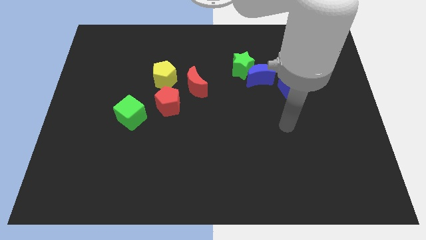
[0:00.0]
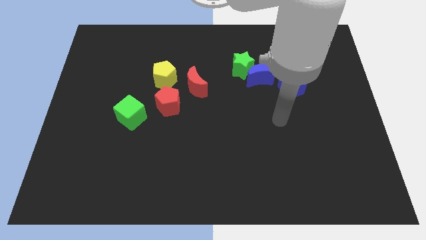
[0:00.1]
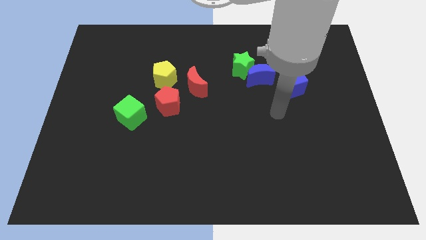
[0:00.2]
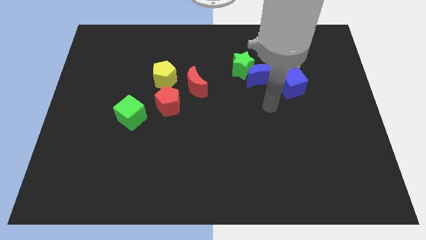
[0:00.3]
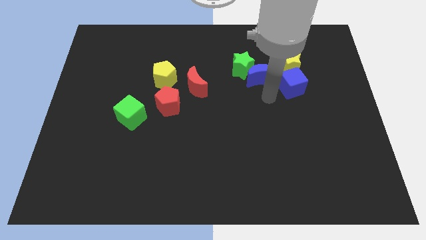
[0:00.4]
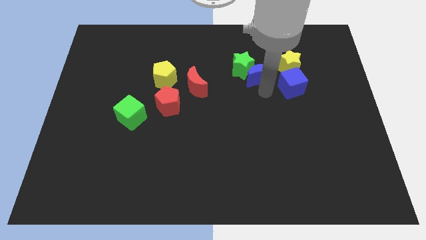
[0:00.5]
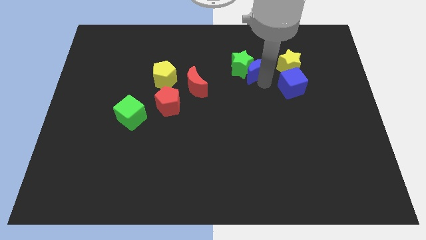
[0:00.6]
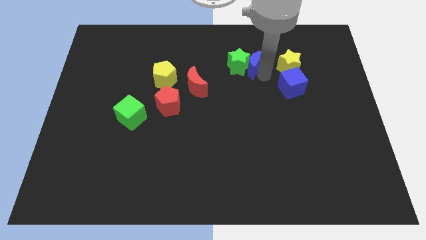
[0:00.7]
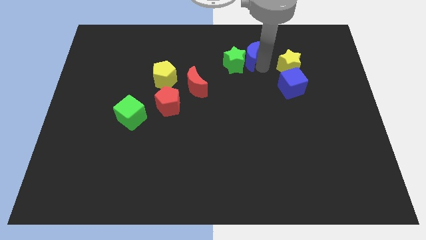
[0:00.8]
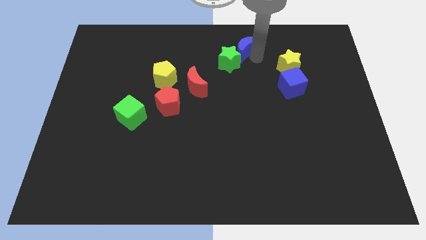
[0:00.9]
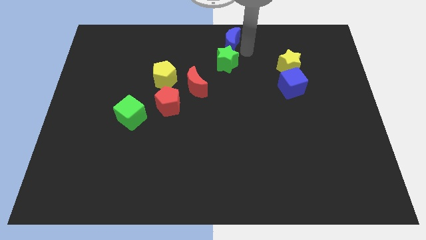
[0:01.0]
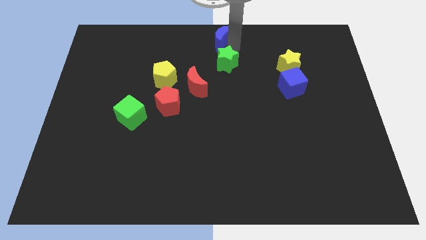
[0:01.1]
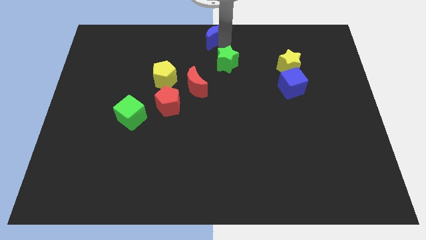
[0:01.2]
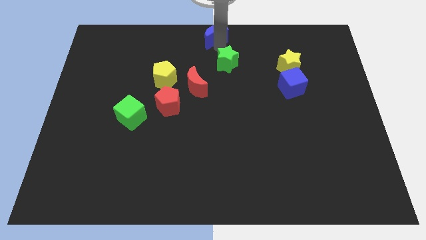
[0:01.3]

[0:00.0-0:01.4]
move the green star away from the blue moon

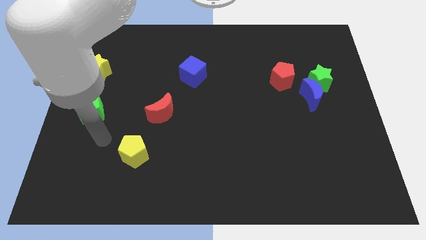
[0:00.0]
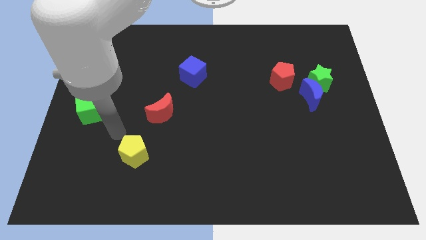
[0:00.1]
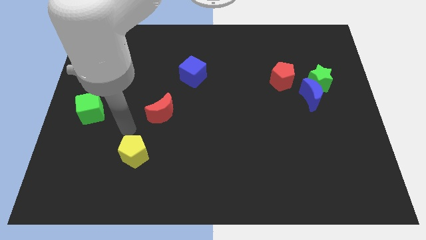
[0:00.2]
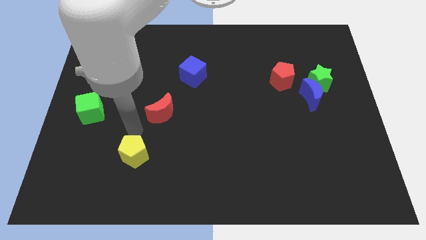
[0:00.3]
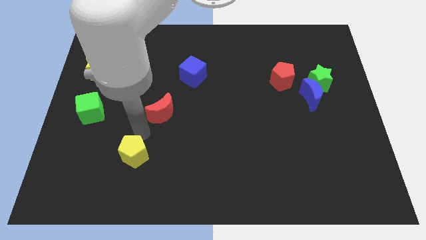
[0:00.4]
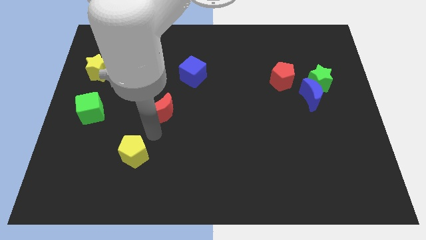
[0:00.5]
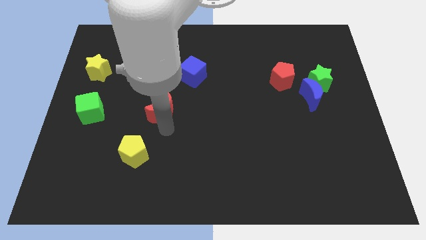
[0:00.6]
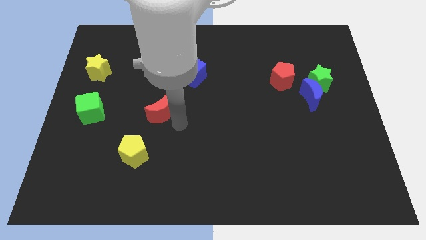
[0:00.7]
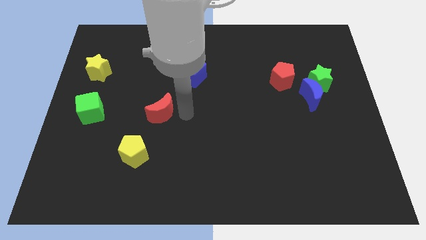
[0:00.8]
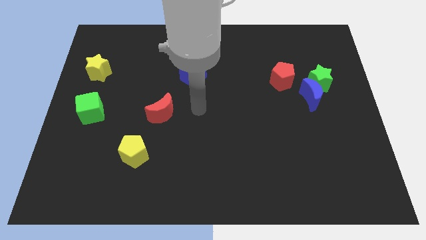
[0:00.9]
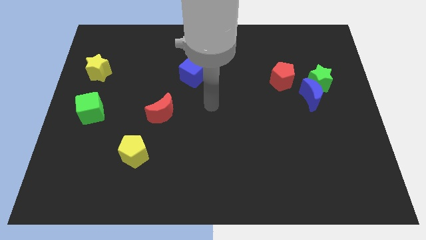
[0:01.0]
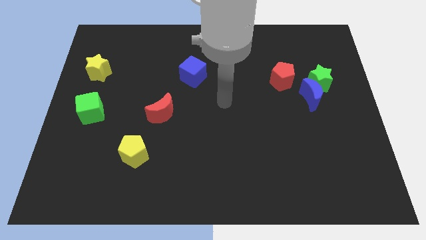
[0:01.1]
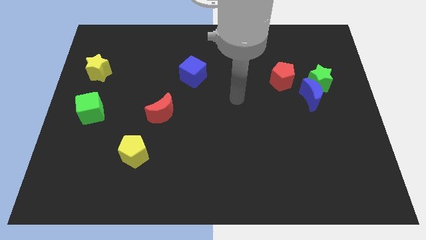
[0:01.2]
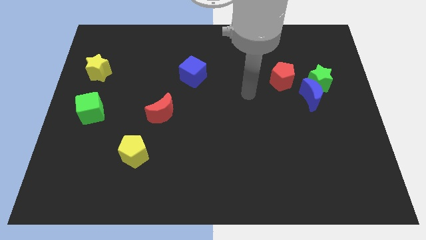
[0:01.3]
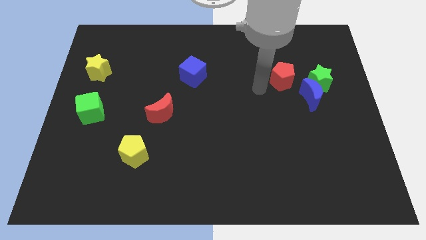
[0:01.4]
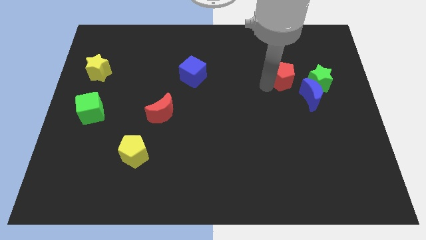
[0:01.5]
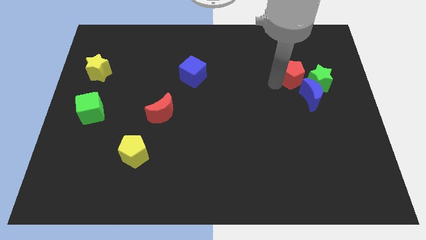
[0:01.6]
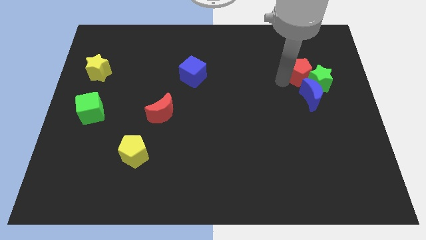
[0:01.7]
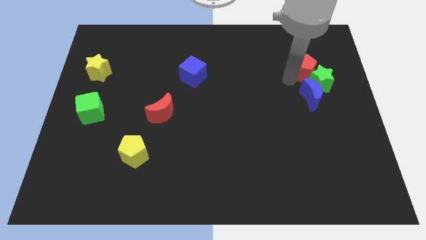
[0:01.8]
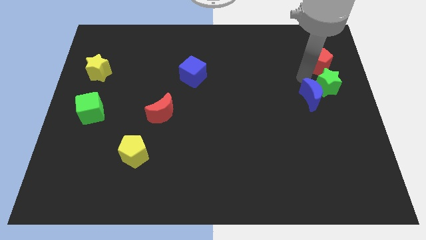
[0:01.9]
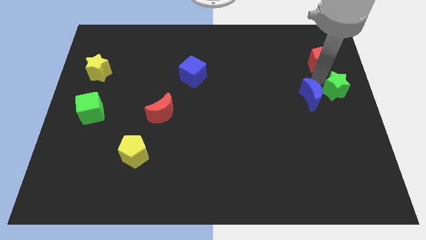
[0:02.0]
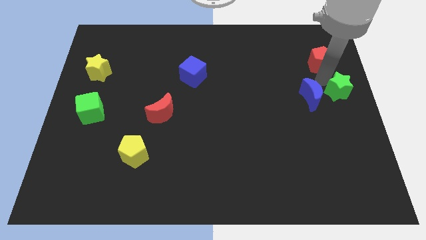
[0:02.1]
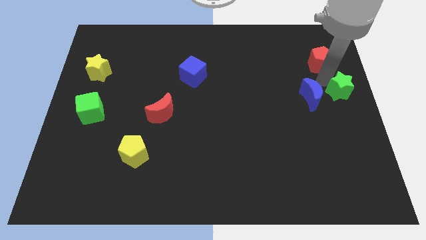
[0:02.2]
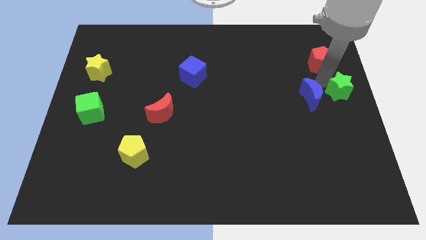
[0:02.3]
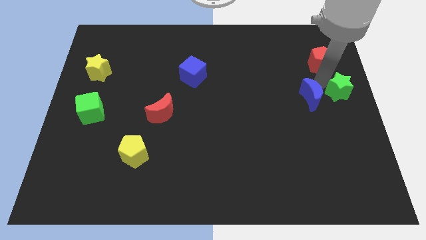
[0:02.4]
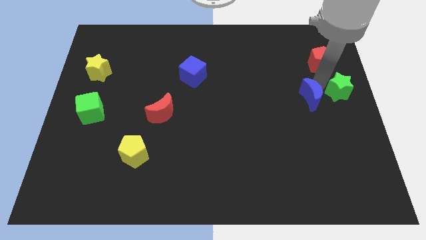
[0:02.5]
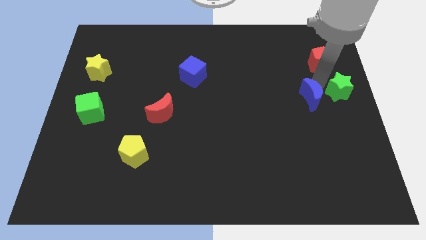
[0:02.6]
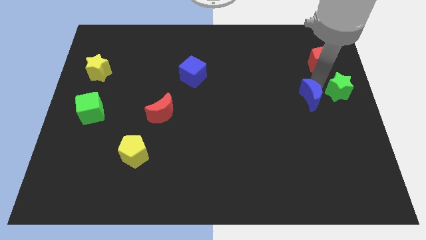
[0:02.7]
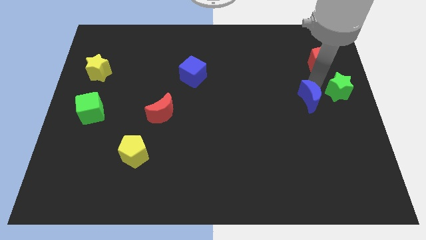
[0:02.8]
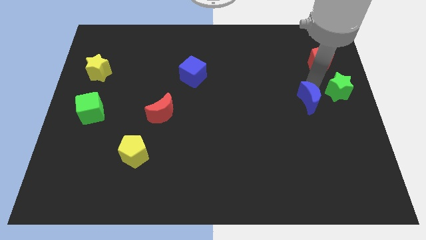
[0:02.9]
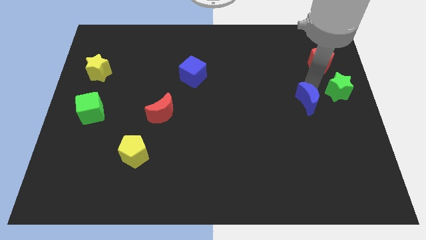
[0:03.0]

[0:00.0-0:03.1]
move the blue moon away from the green star and red pentagon

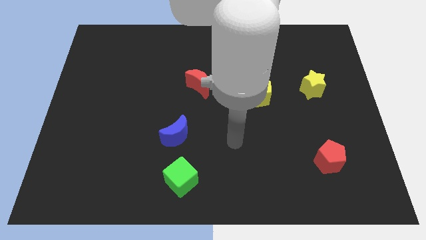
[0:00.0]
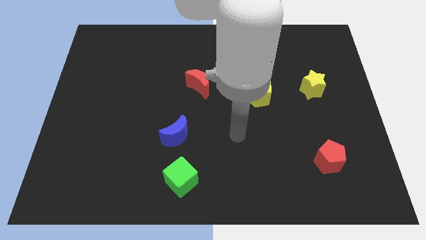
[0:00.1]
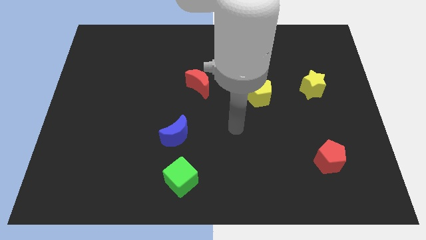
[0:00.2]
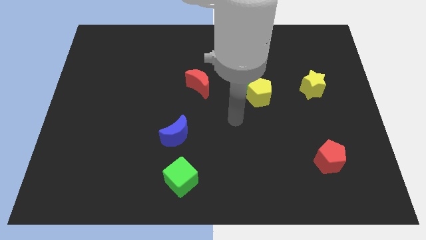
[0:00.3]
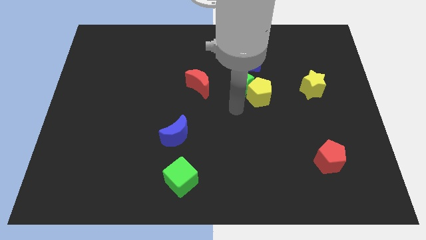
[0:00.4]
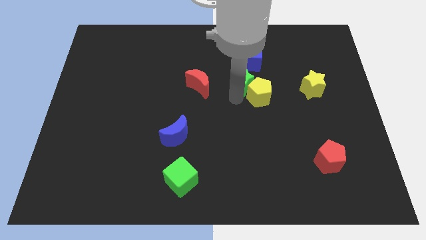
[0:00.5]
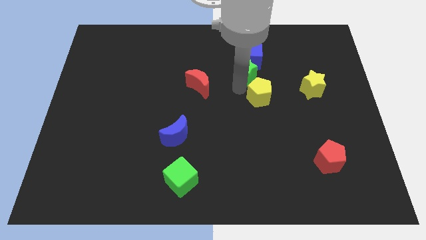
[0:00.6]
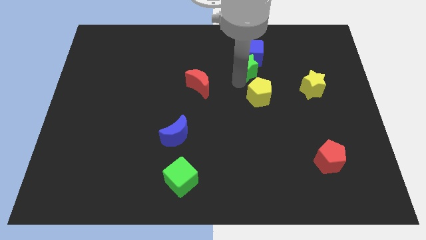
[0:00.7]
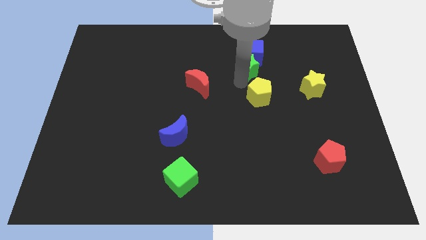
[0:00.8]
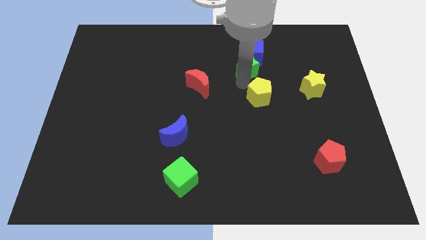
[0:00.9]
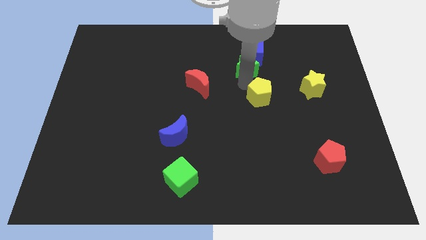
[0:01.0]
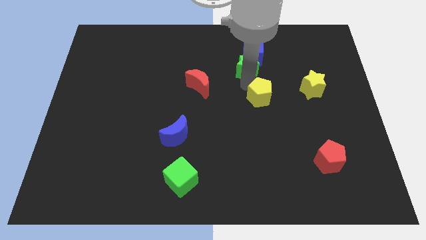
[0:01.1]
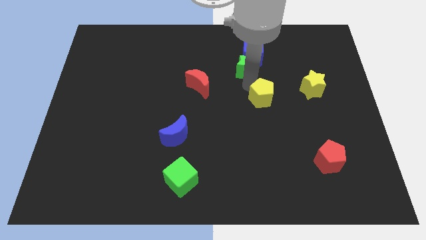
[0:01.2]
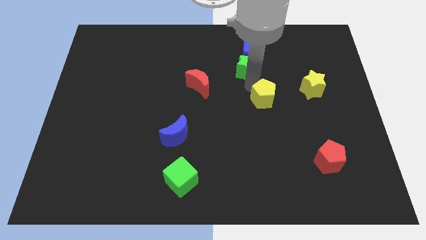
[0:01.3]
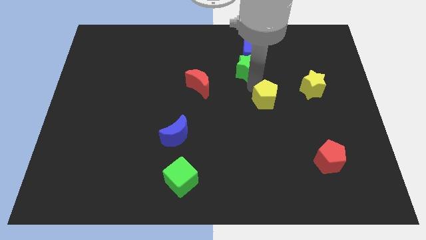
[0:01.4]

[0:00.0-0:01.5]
move the yellow pentagon away from the green star

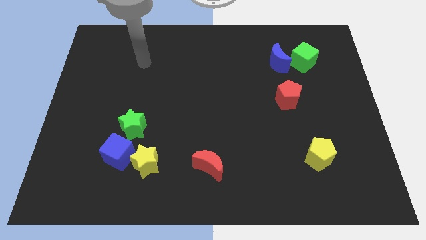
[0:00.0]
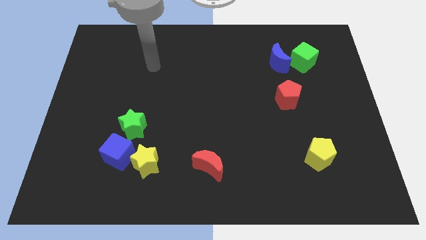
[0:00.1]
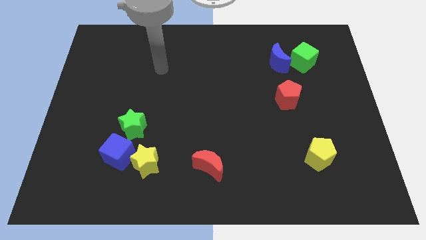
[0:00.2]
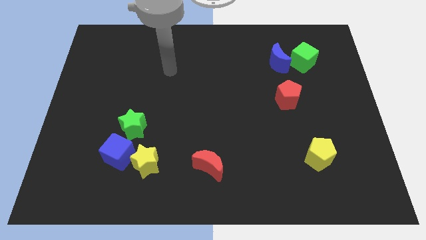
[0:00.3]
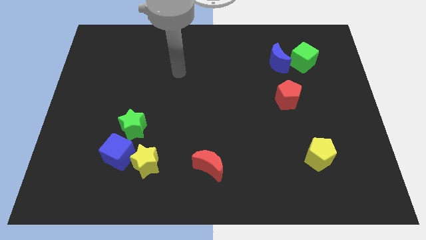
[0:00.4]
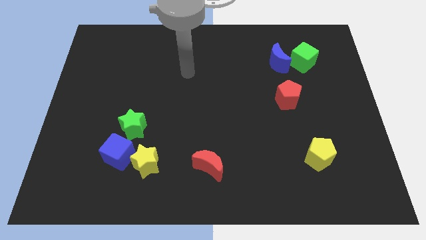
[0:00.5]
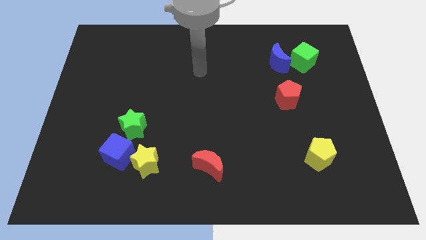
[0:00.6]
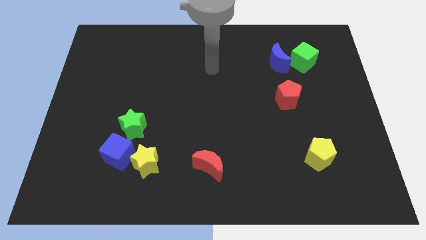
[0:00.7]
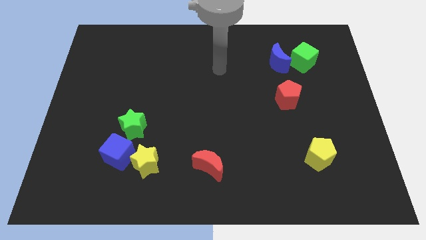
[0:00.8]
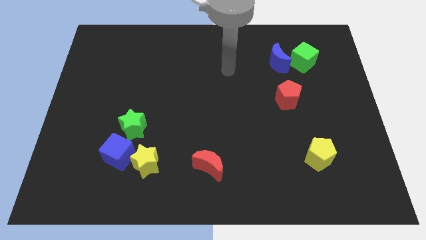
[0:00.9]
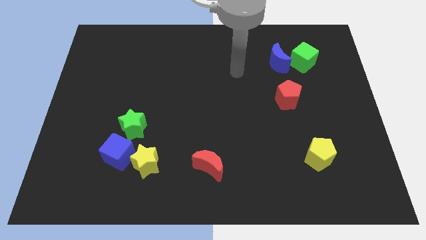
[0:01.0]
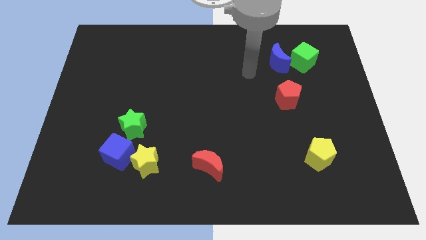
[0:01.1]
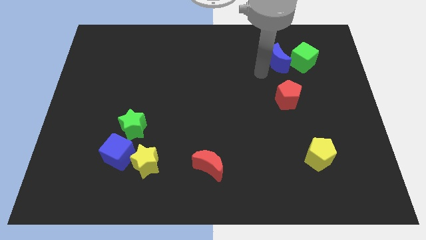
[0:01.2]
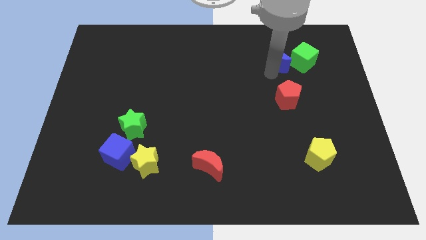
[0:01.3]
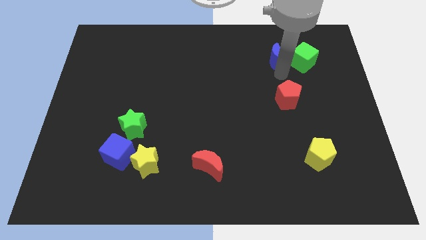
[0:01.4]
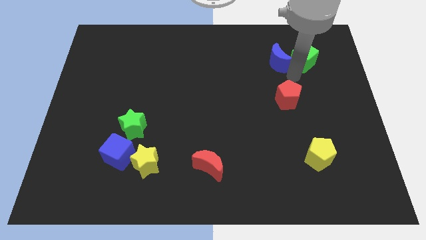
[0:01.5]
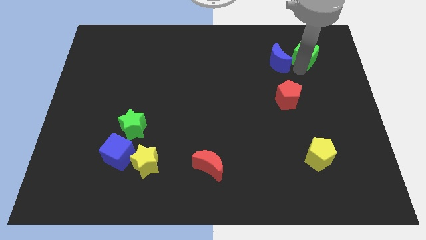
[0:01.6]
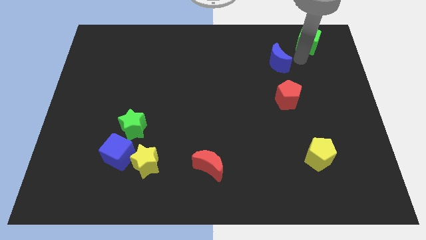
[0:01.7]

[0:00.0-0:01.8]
pull the blue moon apart from the green cube

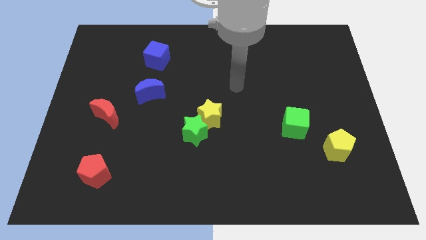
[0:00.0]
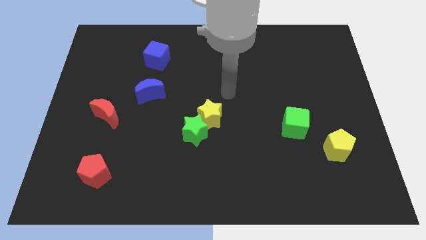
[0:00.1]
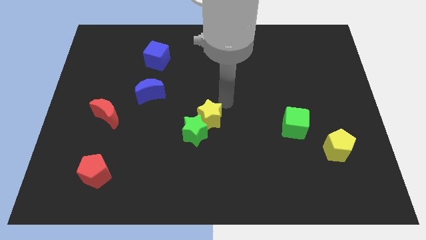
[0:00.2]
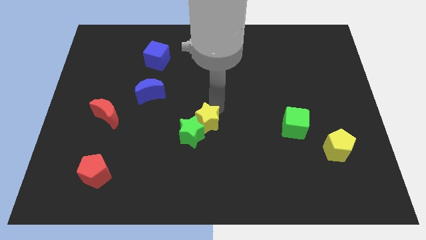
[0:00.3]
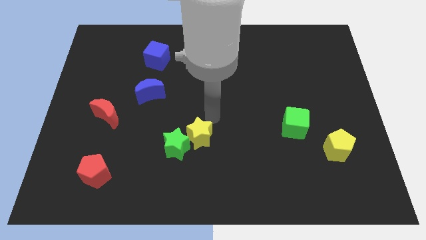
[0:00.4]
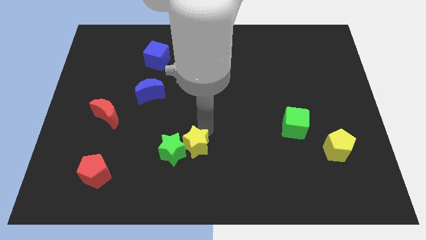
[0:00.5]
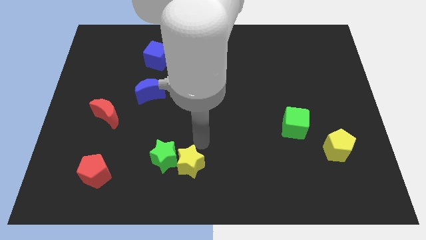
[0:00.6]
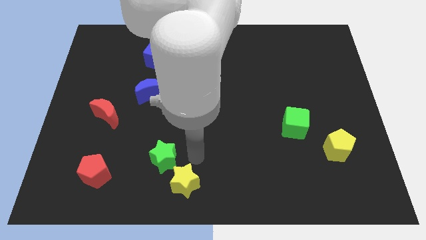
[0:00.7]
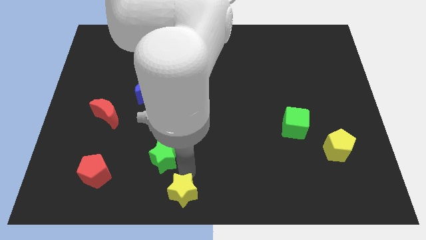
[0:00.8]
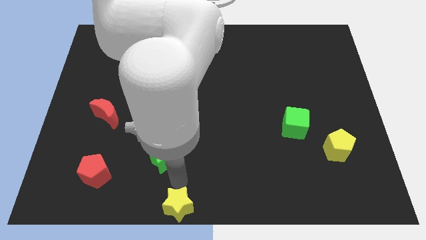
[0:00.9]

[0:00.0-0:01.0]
pull the green star apart from the yellow star

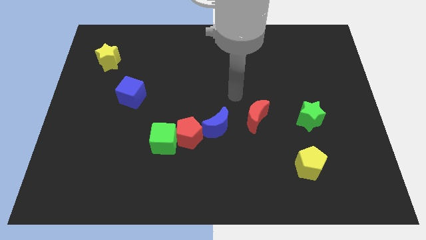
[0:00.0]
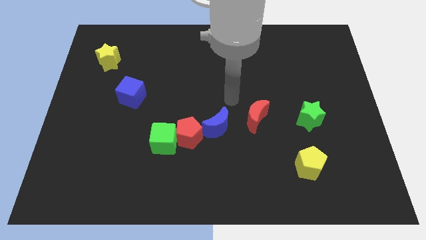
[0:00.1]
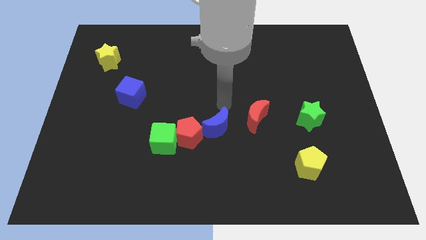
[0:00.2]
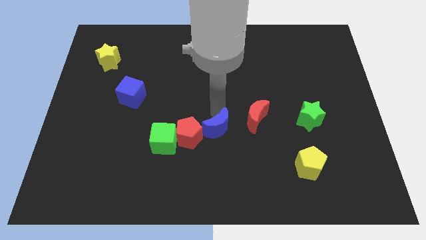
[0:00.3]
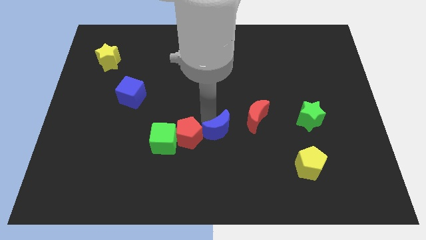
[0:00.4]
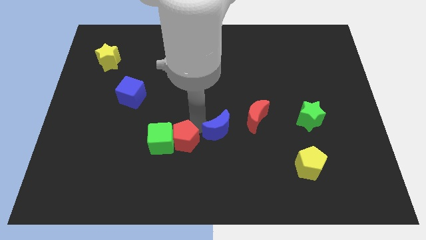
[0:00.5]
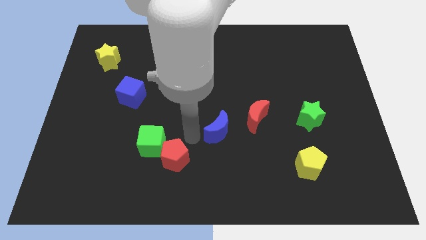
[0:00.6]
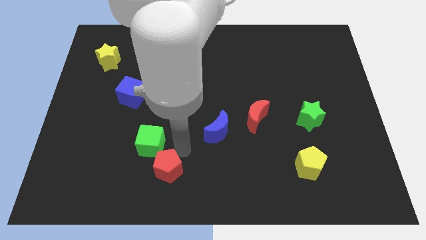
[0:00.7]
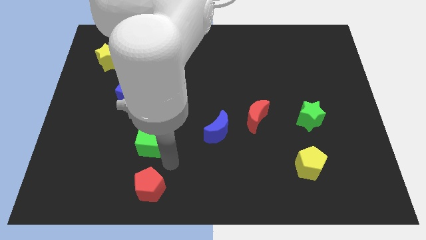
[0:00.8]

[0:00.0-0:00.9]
pull the green cube apart from the red pentagon
